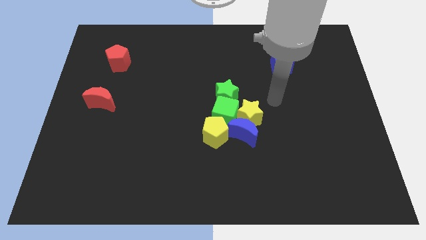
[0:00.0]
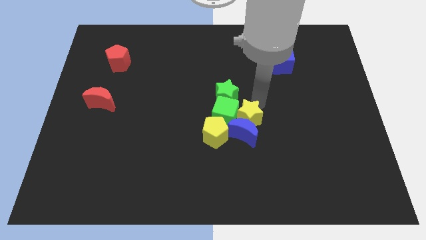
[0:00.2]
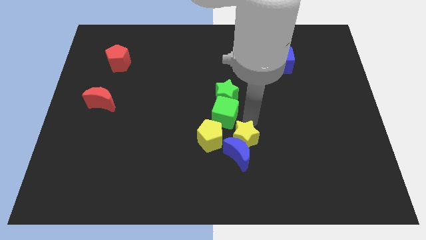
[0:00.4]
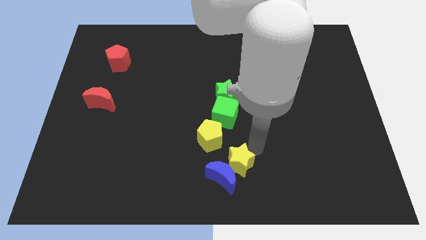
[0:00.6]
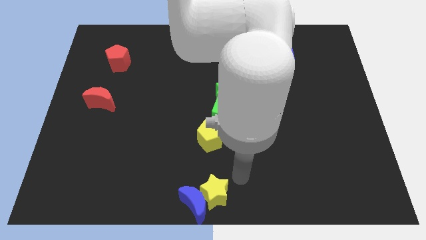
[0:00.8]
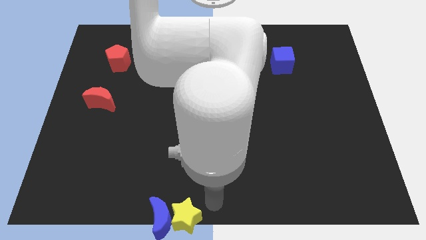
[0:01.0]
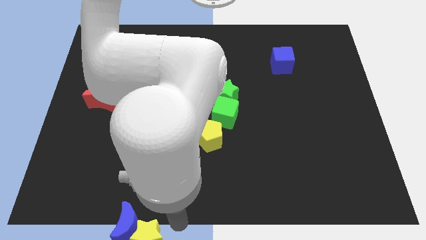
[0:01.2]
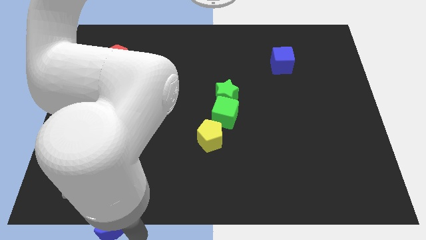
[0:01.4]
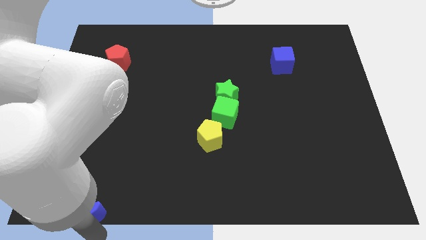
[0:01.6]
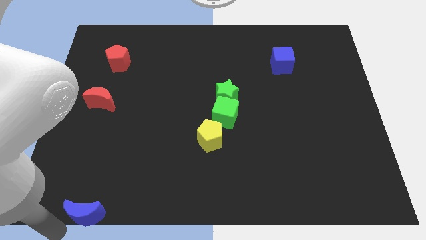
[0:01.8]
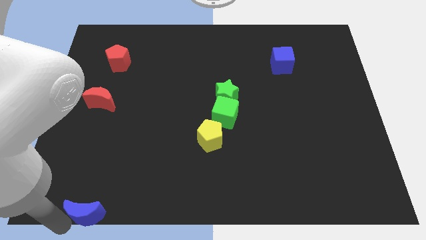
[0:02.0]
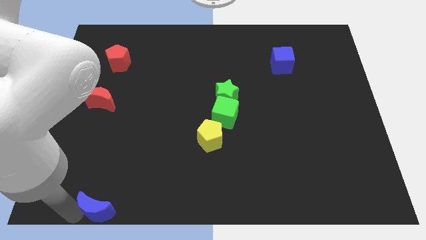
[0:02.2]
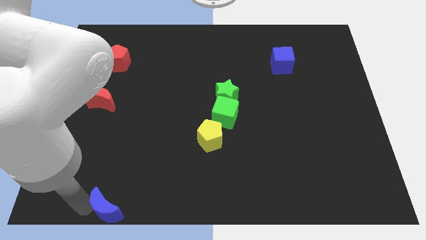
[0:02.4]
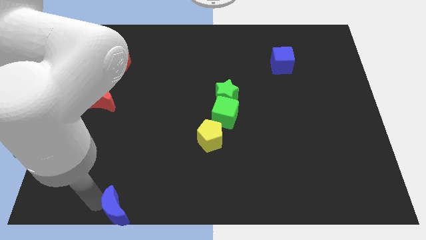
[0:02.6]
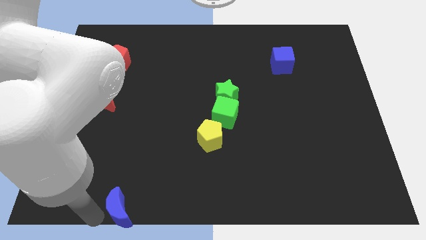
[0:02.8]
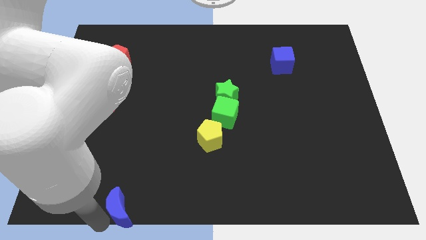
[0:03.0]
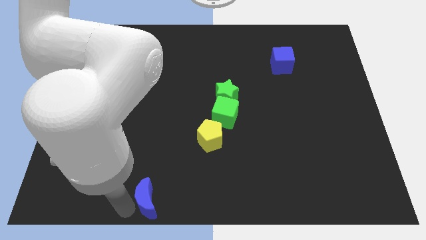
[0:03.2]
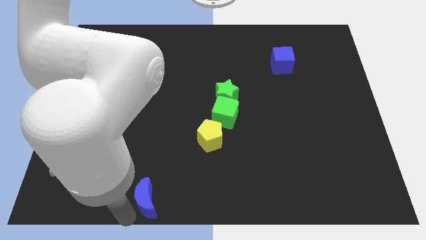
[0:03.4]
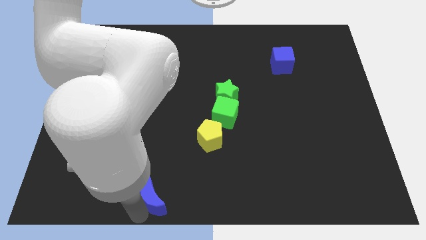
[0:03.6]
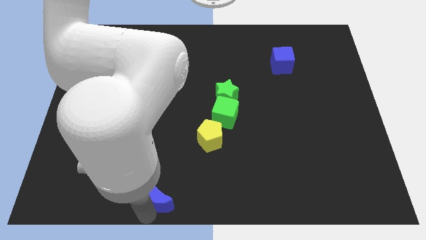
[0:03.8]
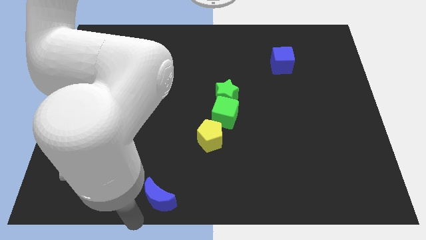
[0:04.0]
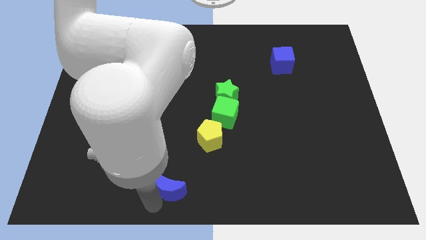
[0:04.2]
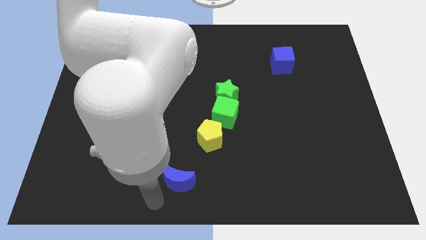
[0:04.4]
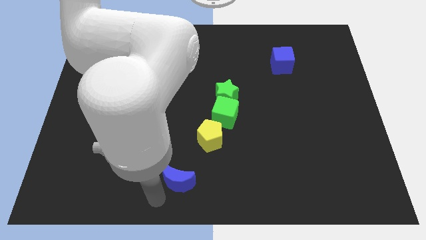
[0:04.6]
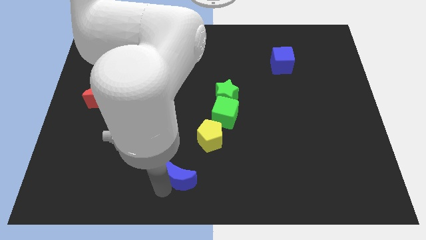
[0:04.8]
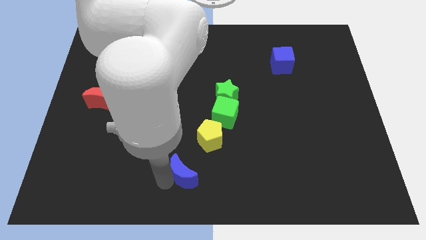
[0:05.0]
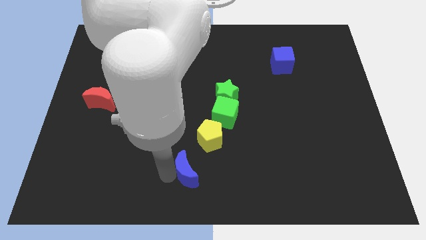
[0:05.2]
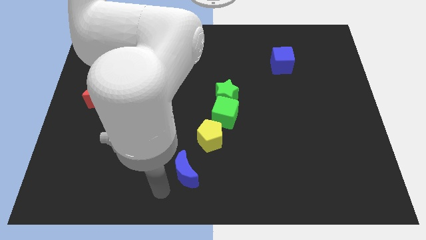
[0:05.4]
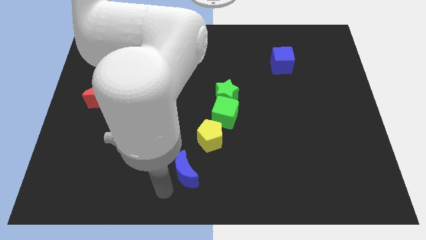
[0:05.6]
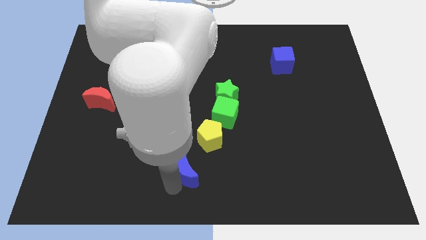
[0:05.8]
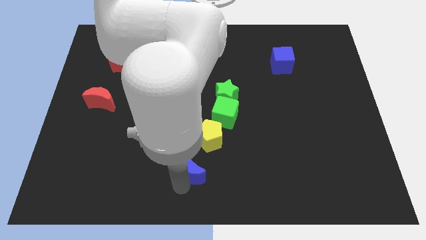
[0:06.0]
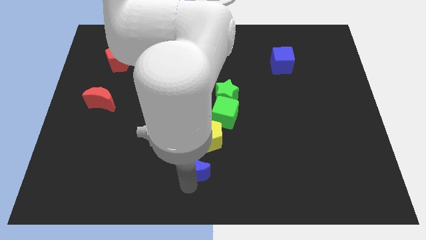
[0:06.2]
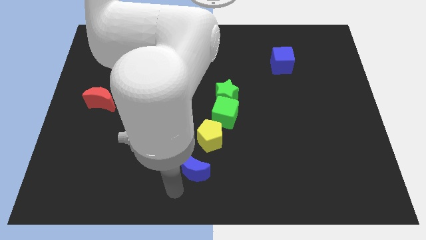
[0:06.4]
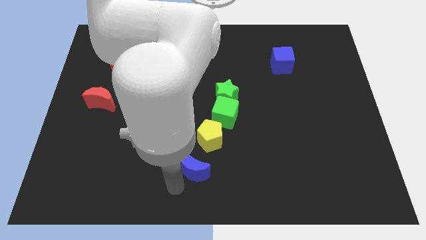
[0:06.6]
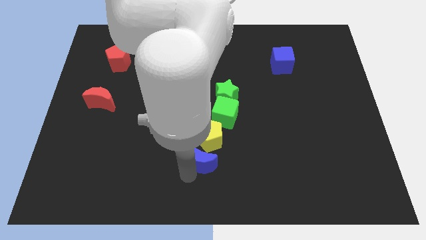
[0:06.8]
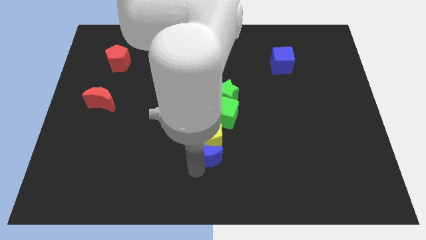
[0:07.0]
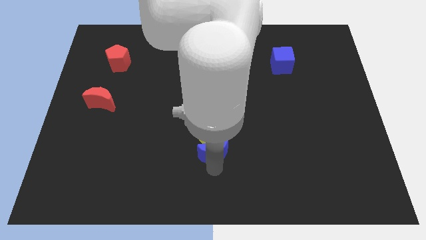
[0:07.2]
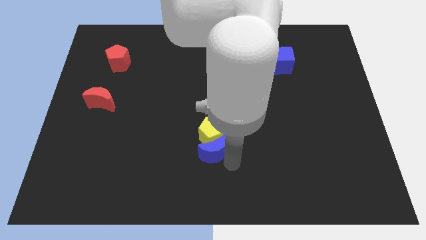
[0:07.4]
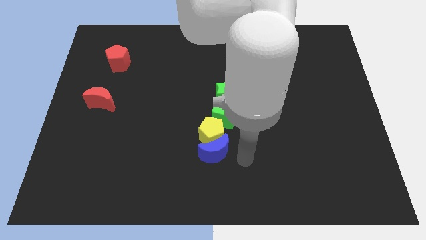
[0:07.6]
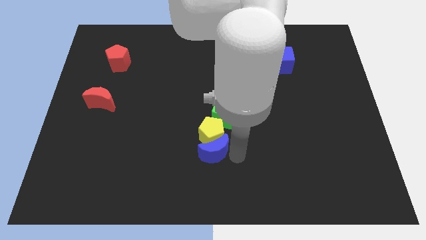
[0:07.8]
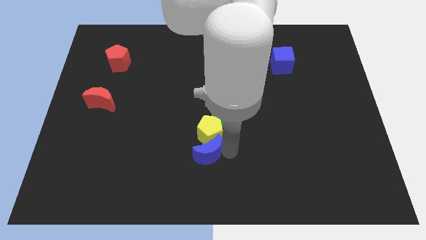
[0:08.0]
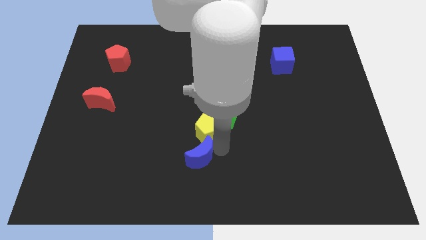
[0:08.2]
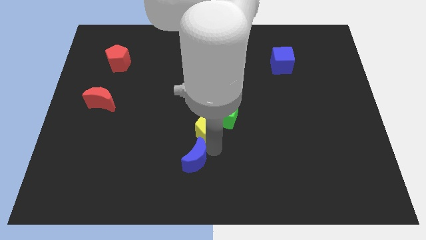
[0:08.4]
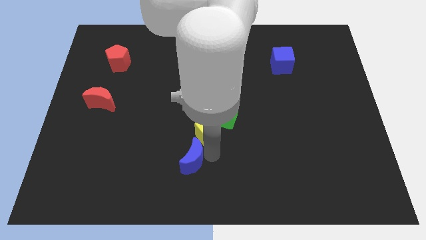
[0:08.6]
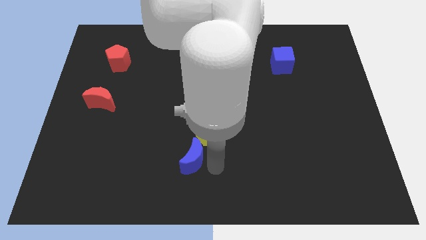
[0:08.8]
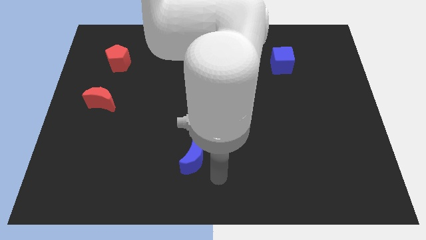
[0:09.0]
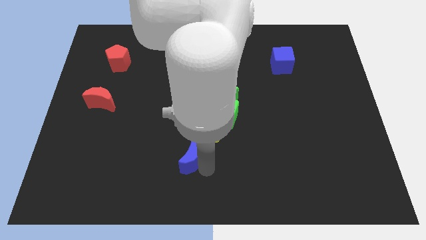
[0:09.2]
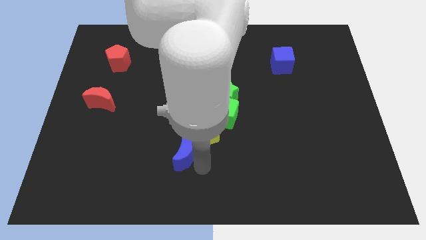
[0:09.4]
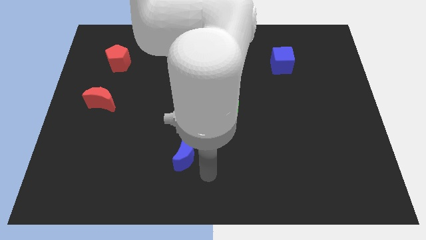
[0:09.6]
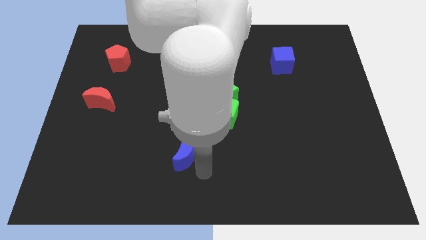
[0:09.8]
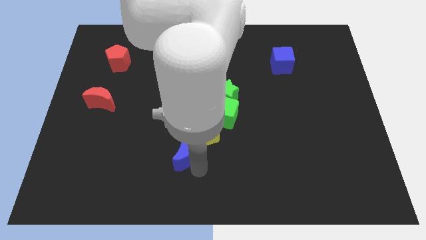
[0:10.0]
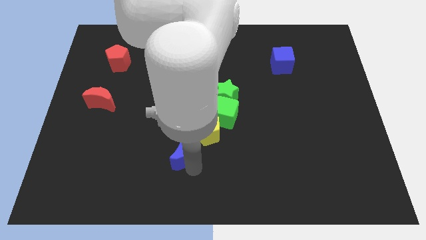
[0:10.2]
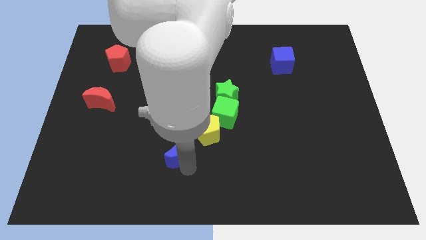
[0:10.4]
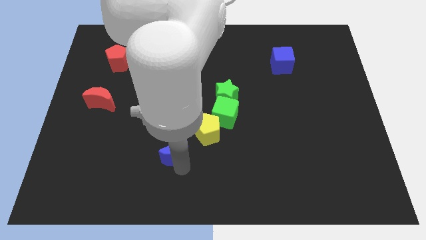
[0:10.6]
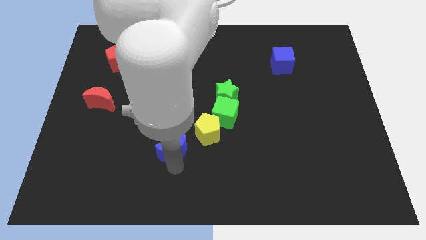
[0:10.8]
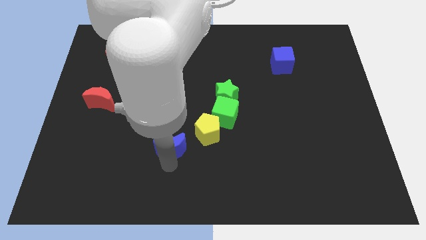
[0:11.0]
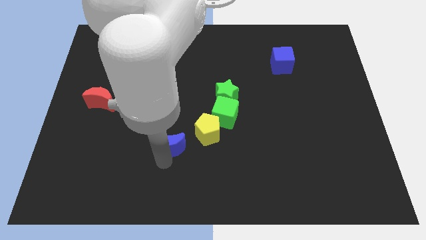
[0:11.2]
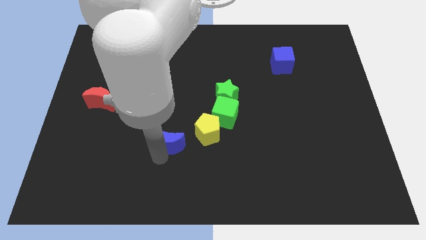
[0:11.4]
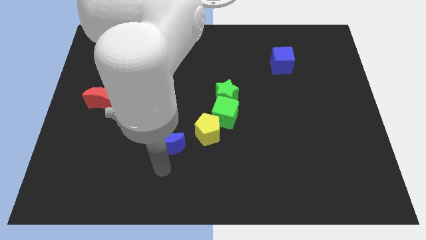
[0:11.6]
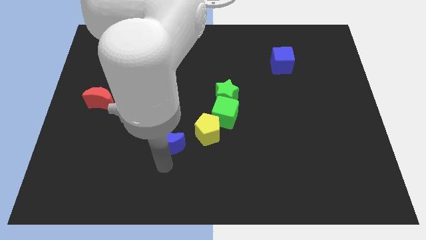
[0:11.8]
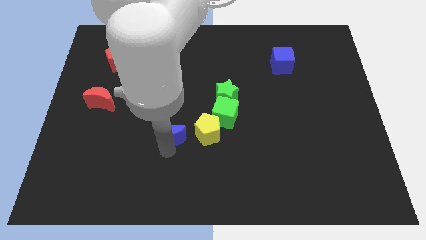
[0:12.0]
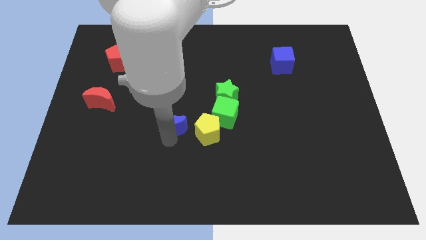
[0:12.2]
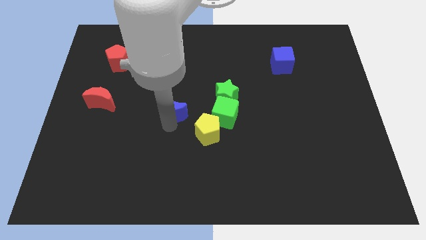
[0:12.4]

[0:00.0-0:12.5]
move the blue moon to the left of the green star
